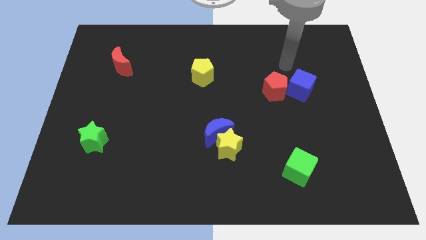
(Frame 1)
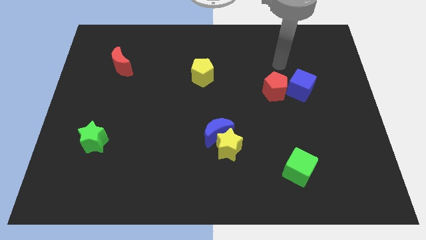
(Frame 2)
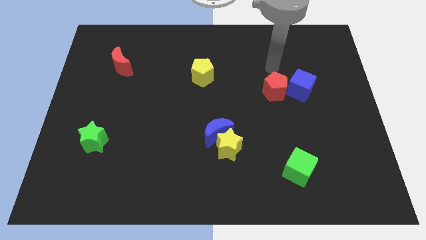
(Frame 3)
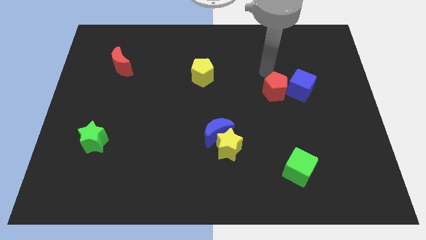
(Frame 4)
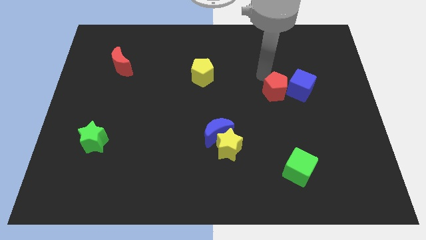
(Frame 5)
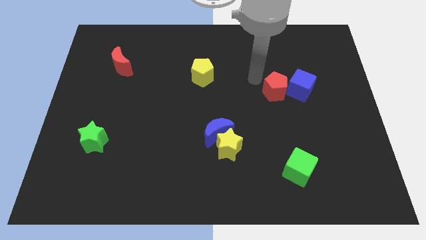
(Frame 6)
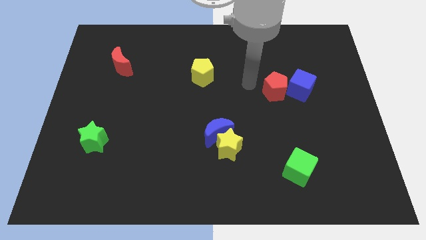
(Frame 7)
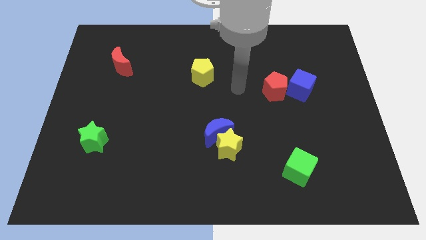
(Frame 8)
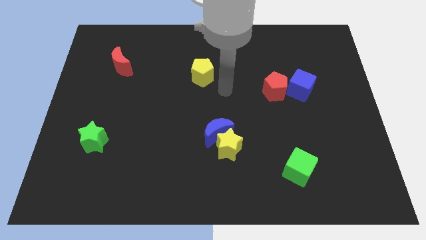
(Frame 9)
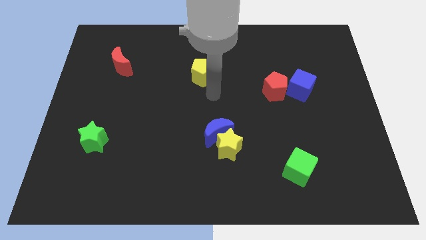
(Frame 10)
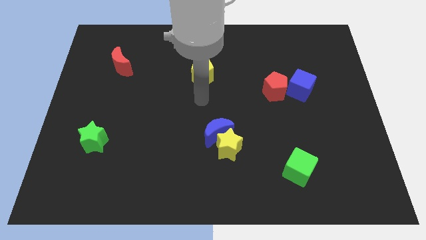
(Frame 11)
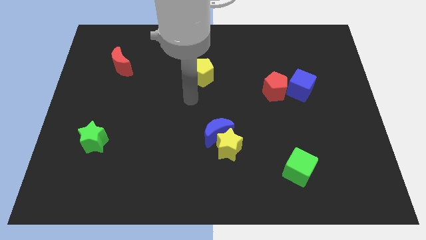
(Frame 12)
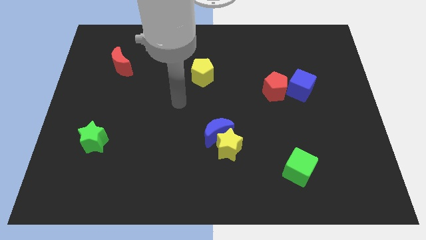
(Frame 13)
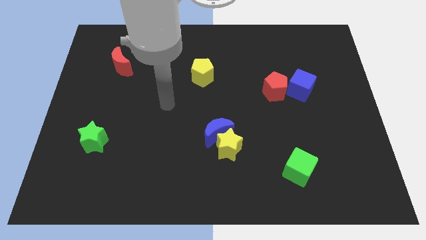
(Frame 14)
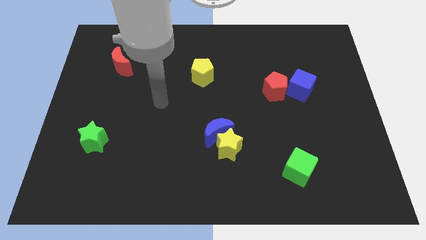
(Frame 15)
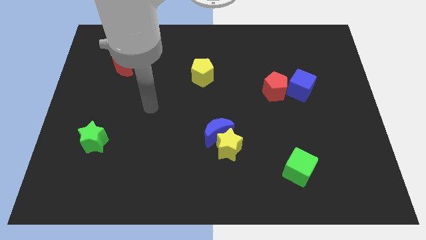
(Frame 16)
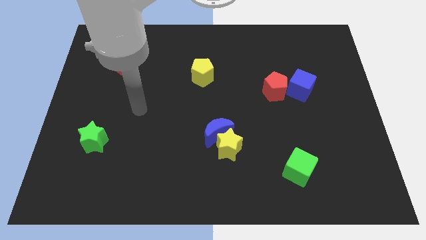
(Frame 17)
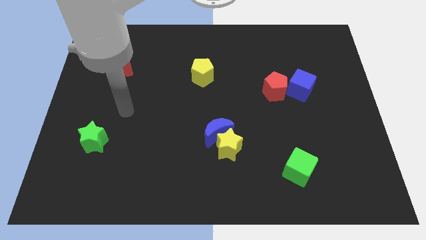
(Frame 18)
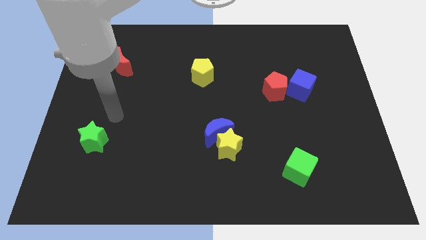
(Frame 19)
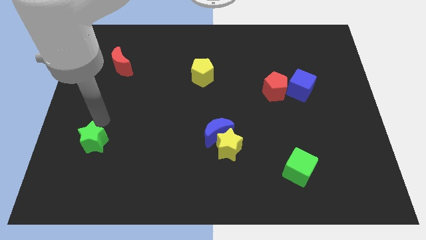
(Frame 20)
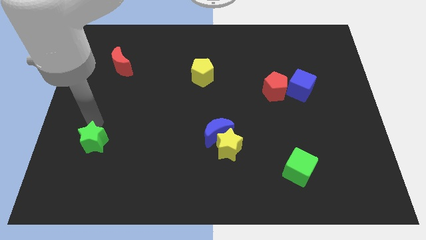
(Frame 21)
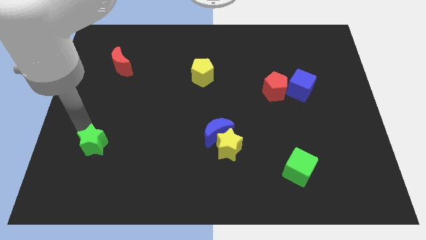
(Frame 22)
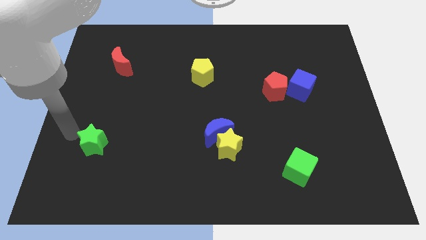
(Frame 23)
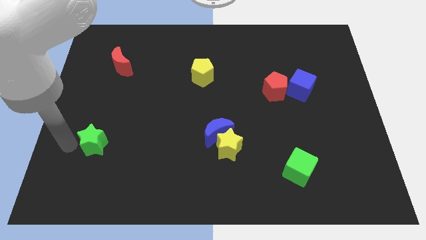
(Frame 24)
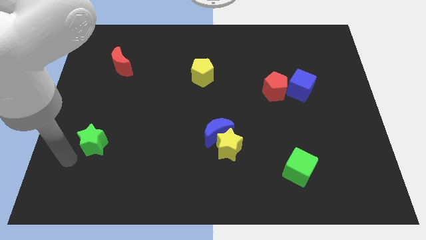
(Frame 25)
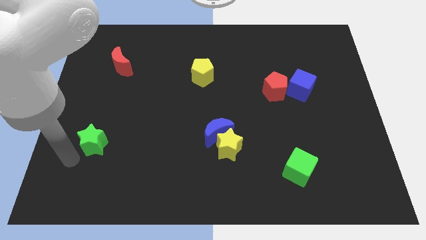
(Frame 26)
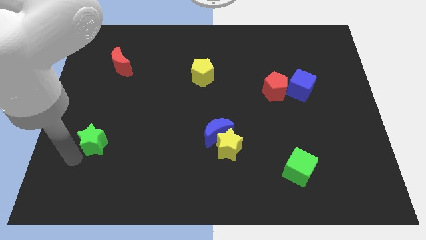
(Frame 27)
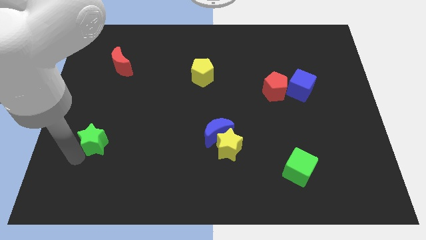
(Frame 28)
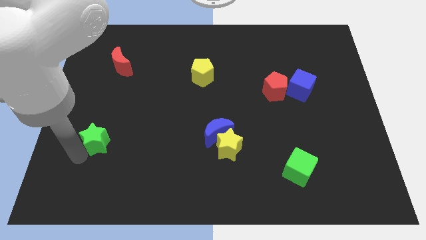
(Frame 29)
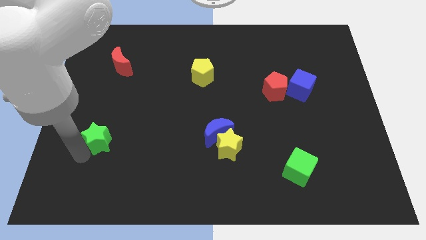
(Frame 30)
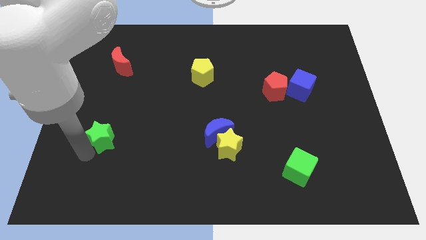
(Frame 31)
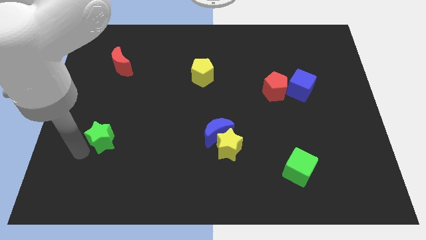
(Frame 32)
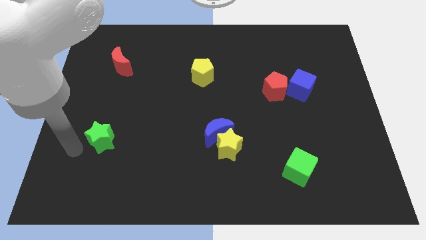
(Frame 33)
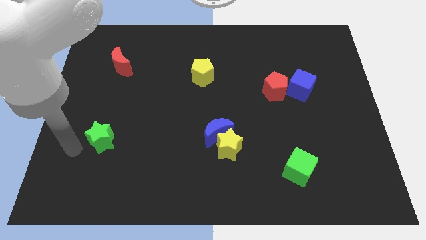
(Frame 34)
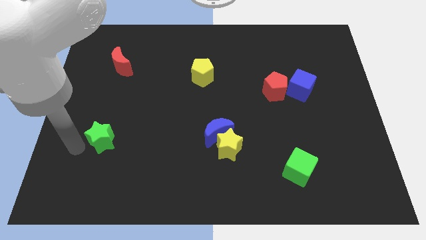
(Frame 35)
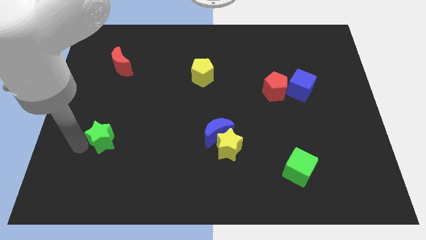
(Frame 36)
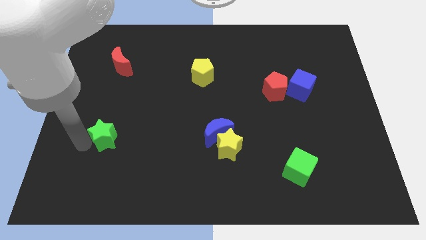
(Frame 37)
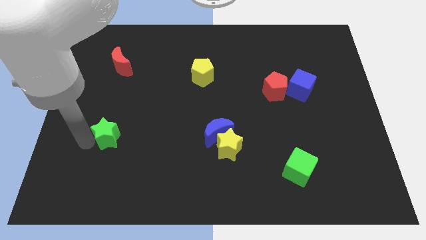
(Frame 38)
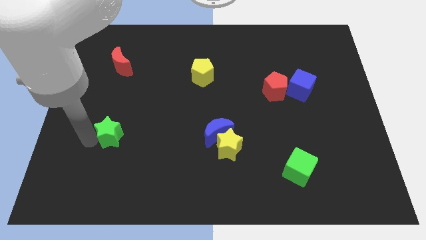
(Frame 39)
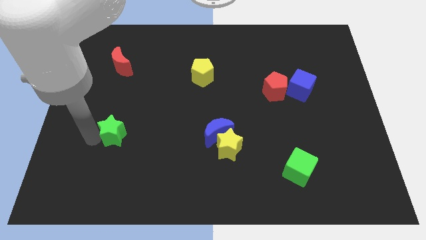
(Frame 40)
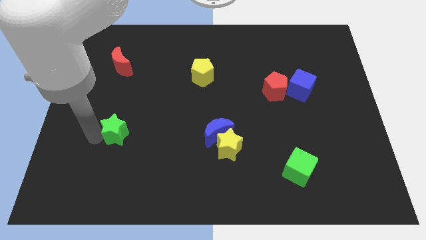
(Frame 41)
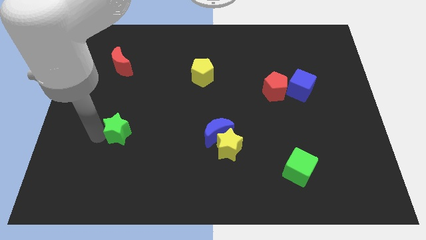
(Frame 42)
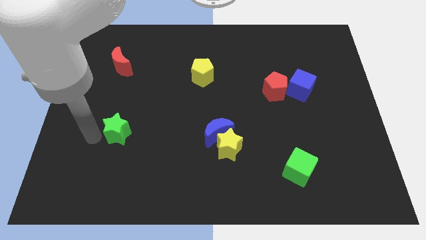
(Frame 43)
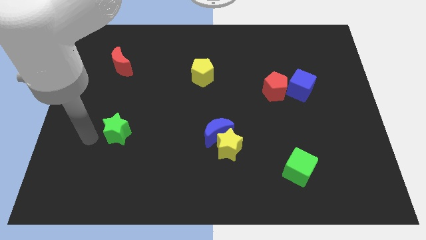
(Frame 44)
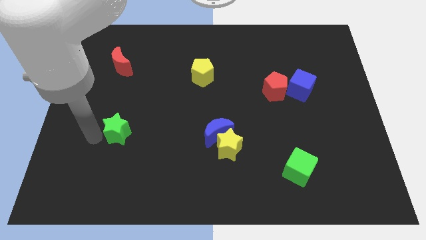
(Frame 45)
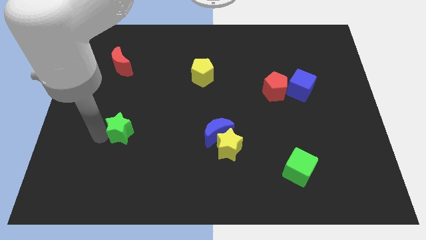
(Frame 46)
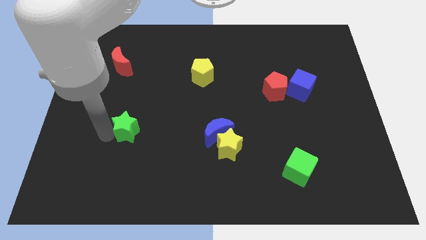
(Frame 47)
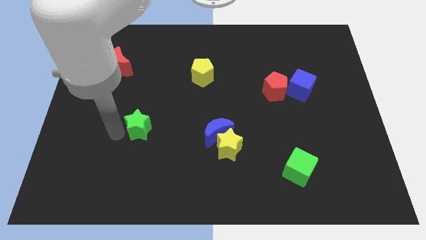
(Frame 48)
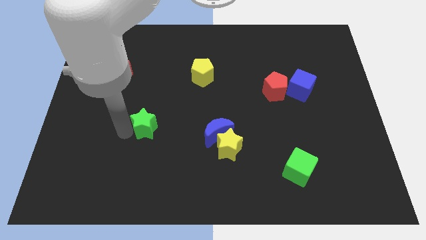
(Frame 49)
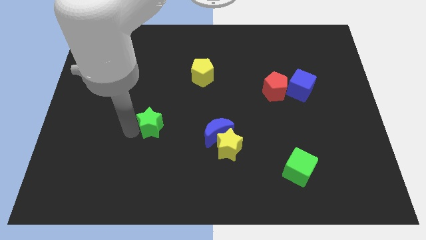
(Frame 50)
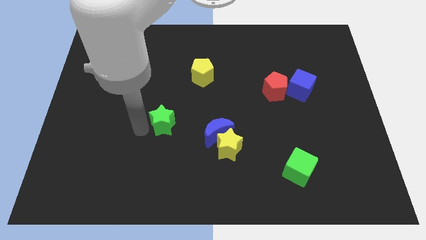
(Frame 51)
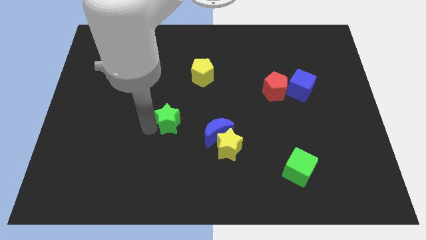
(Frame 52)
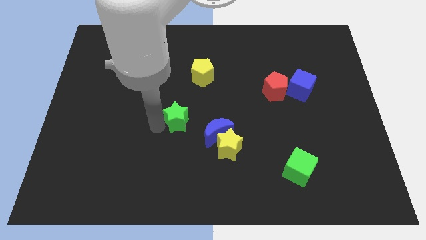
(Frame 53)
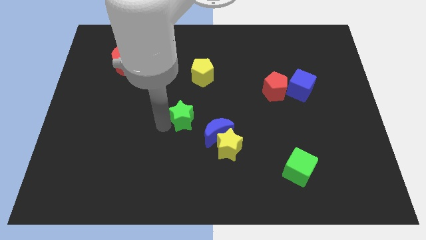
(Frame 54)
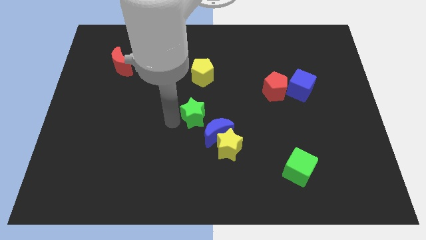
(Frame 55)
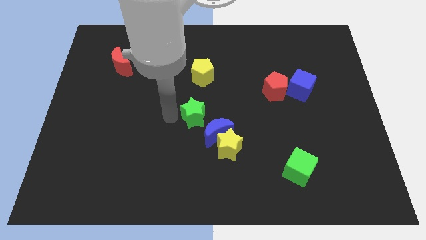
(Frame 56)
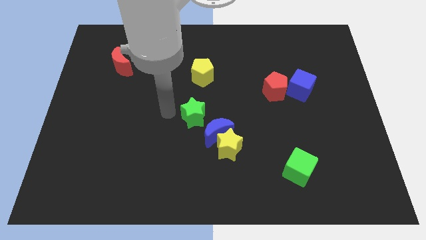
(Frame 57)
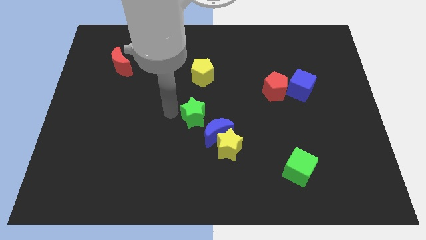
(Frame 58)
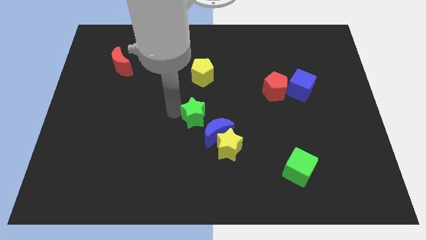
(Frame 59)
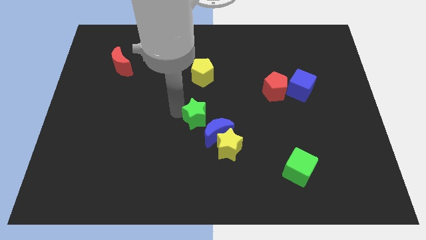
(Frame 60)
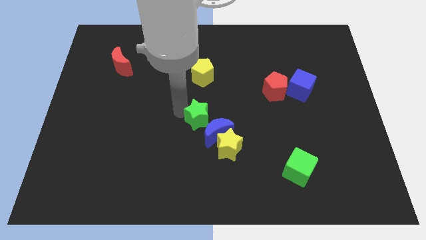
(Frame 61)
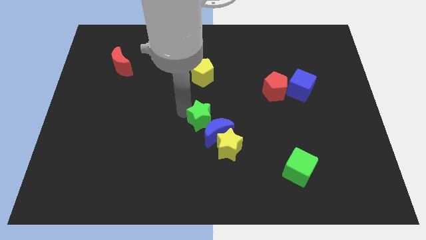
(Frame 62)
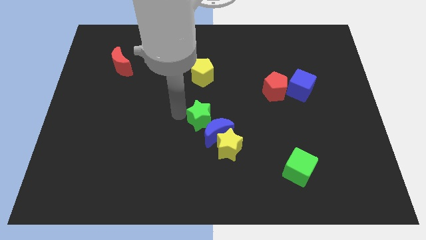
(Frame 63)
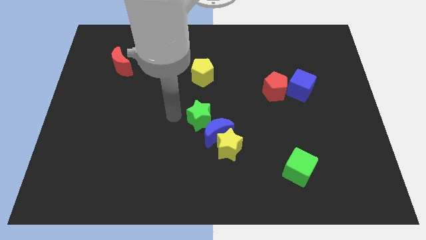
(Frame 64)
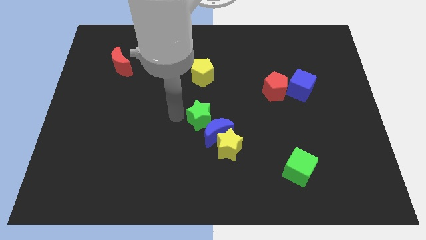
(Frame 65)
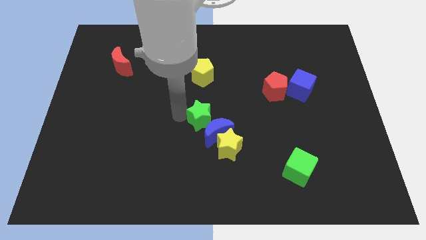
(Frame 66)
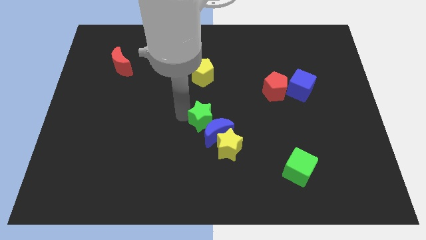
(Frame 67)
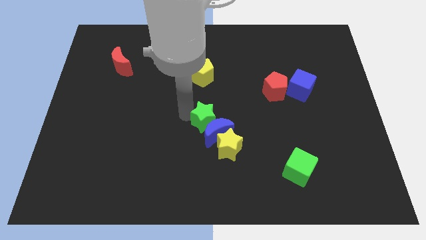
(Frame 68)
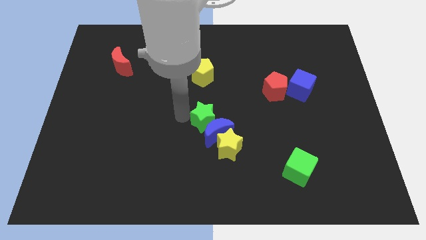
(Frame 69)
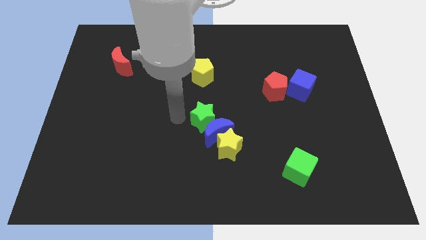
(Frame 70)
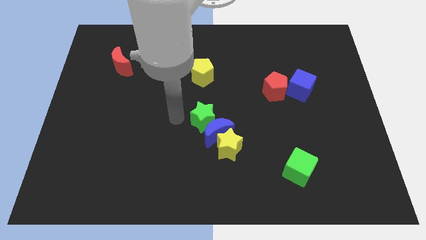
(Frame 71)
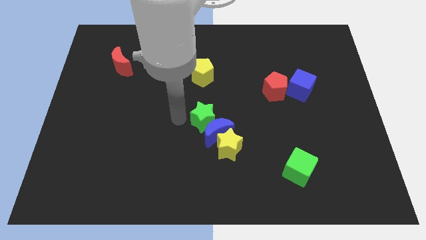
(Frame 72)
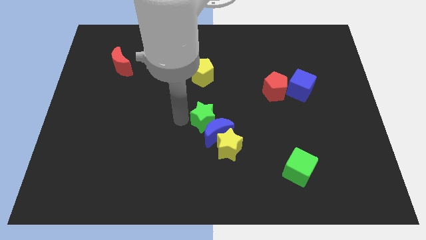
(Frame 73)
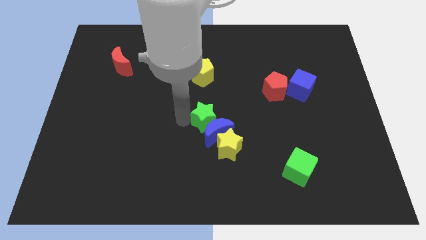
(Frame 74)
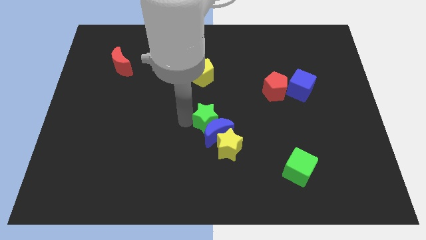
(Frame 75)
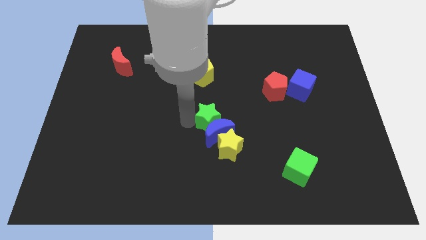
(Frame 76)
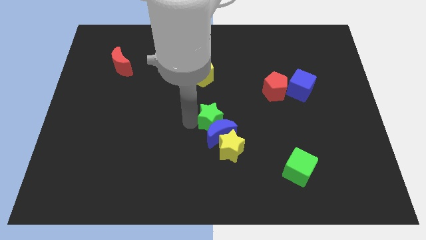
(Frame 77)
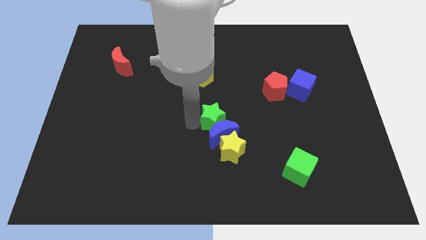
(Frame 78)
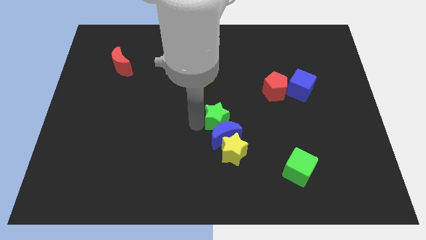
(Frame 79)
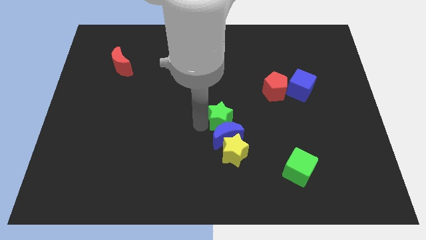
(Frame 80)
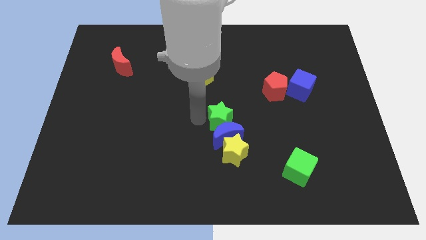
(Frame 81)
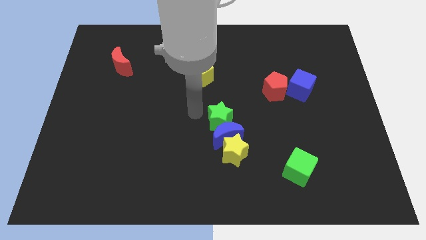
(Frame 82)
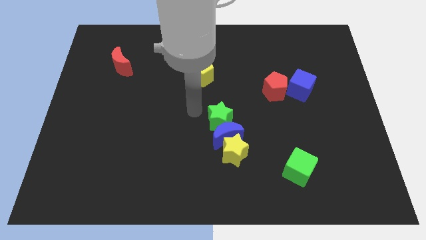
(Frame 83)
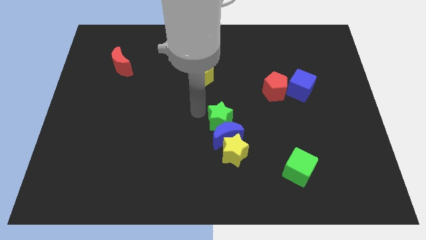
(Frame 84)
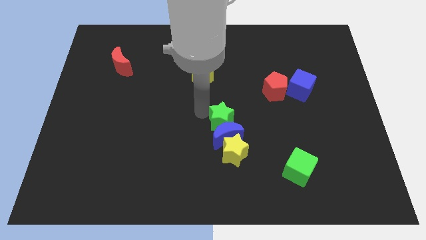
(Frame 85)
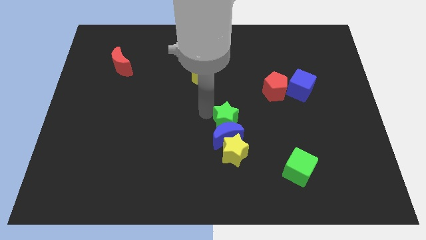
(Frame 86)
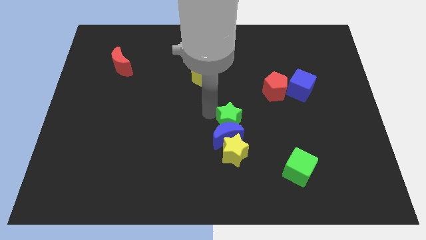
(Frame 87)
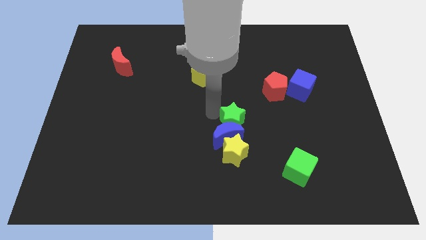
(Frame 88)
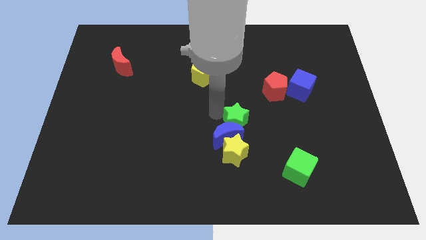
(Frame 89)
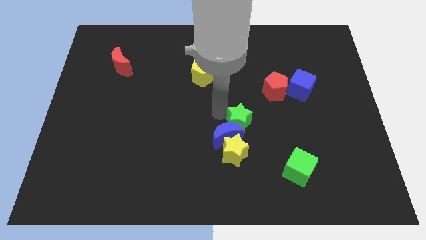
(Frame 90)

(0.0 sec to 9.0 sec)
slide the green star diagonally up and to the right of the yellow star
